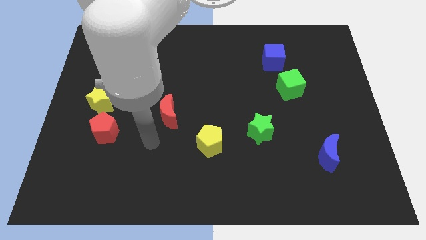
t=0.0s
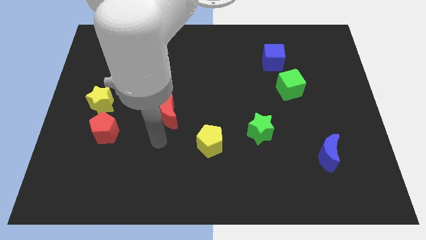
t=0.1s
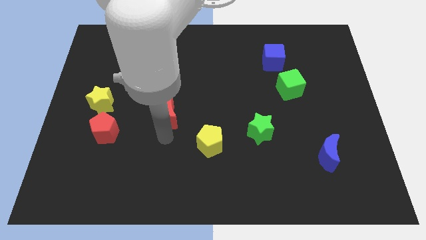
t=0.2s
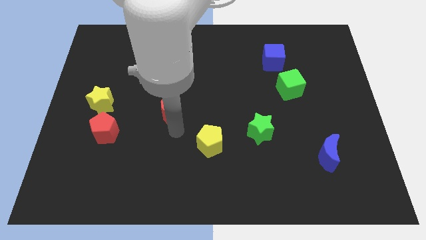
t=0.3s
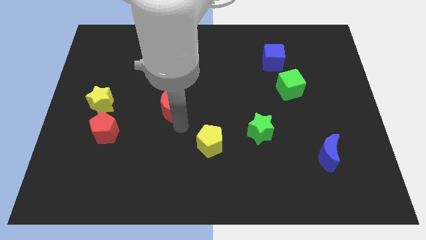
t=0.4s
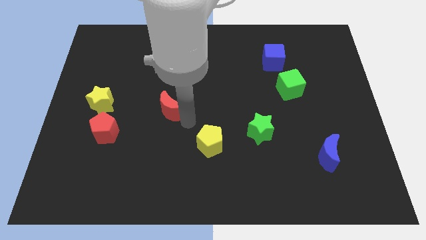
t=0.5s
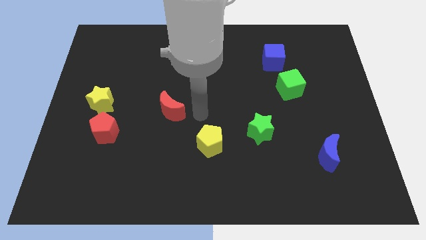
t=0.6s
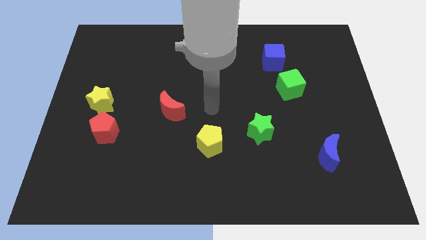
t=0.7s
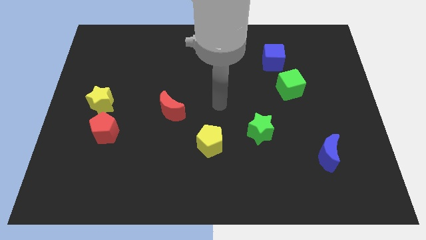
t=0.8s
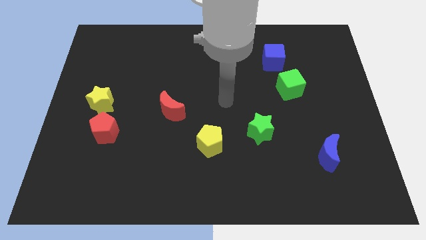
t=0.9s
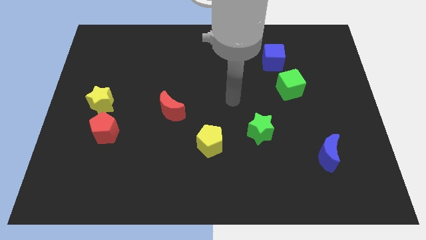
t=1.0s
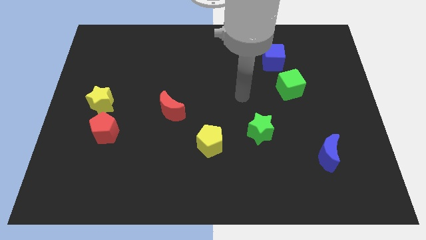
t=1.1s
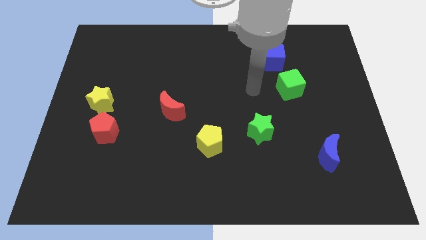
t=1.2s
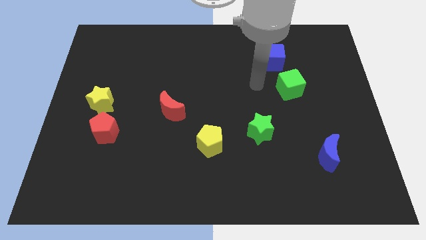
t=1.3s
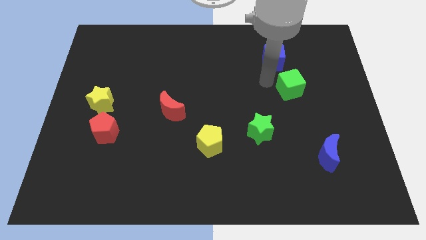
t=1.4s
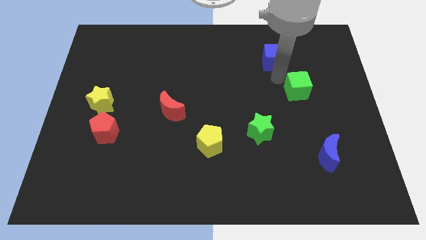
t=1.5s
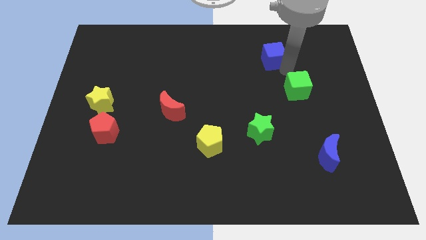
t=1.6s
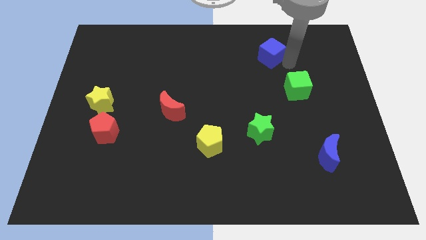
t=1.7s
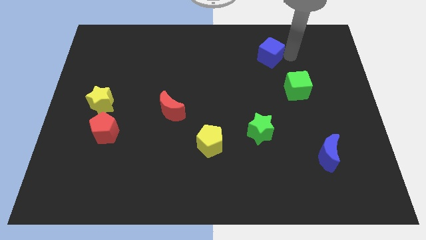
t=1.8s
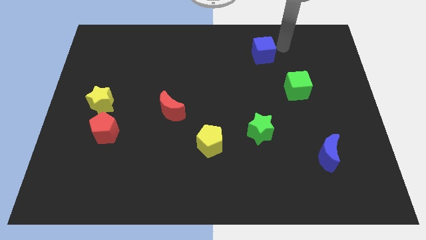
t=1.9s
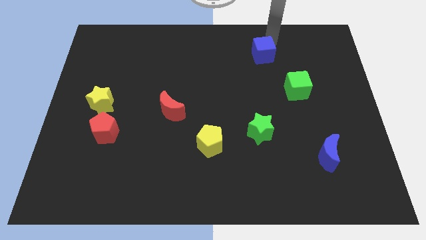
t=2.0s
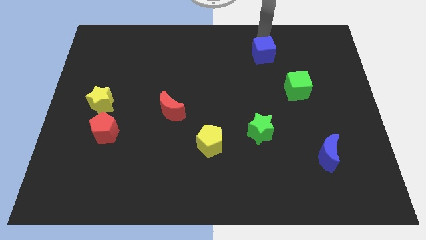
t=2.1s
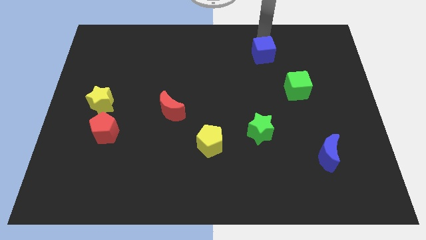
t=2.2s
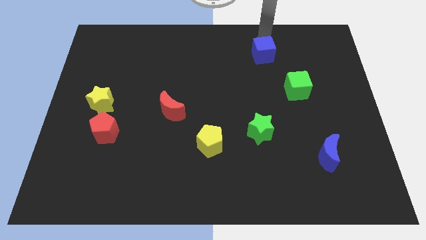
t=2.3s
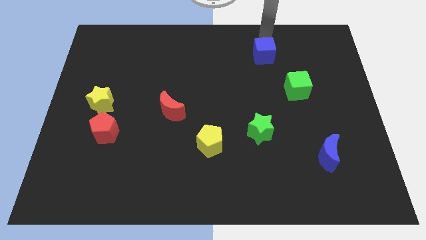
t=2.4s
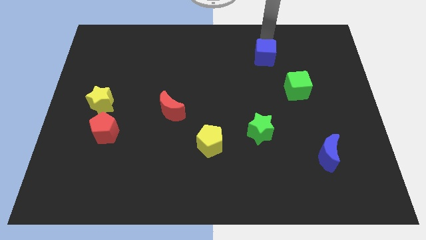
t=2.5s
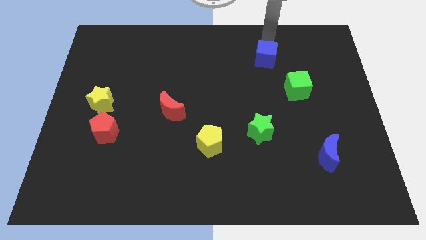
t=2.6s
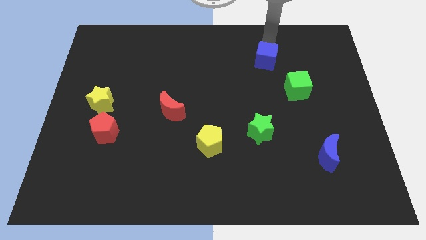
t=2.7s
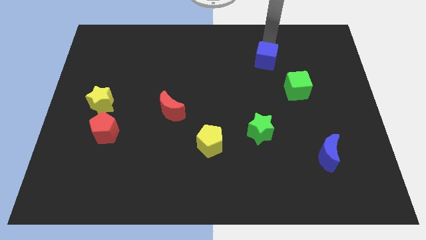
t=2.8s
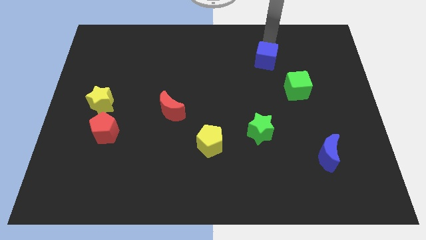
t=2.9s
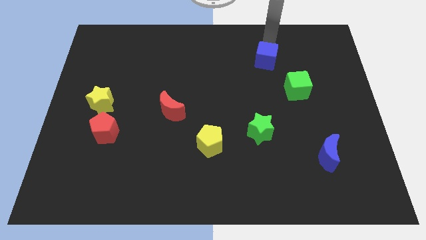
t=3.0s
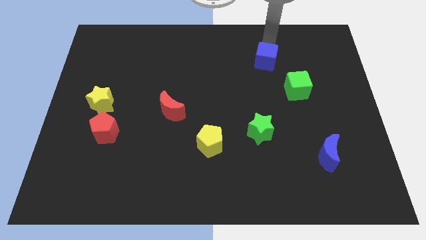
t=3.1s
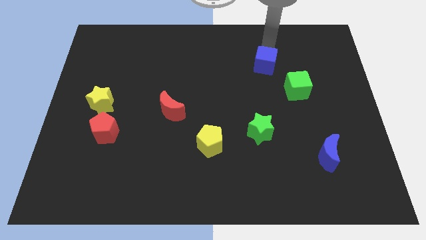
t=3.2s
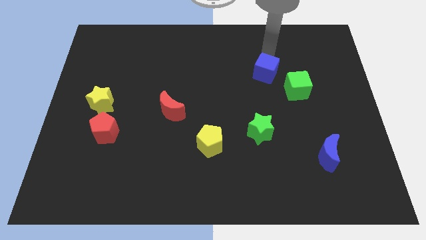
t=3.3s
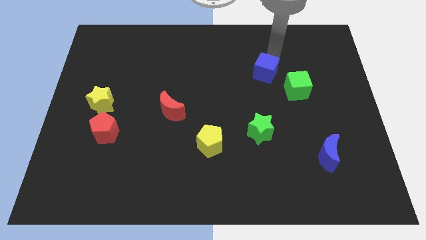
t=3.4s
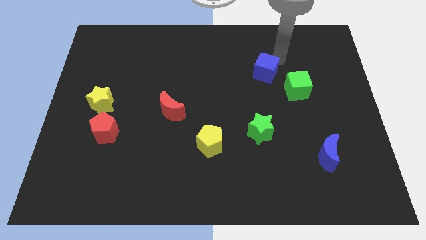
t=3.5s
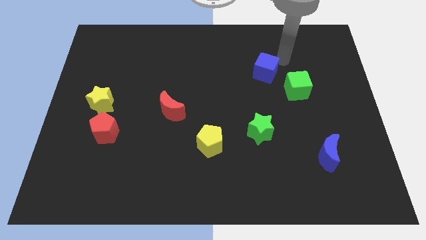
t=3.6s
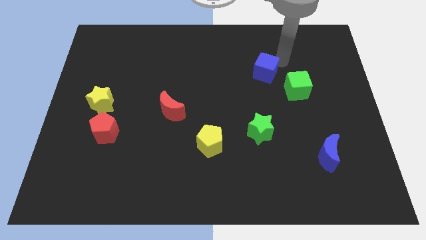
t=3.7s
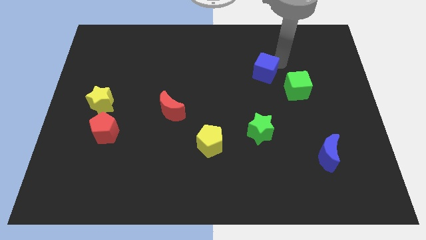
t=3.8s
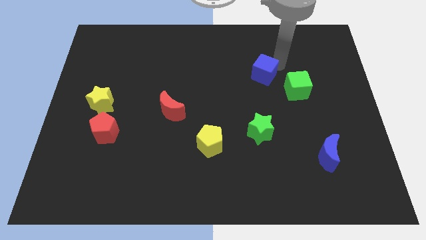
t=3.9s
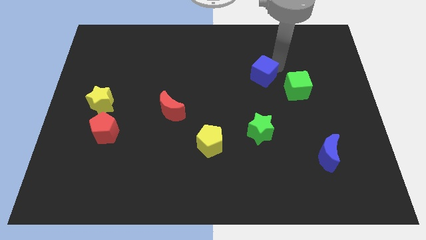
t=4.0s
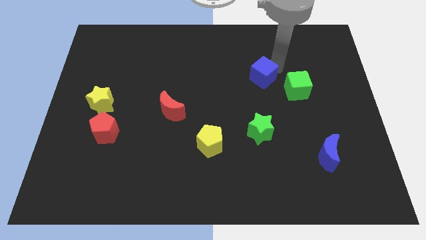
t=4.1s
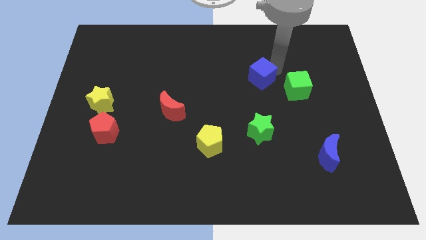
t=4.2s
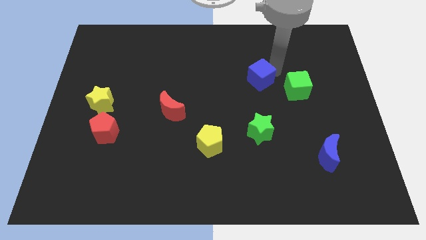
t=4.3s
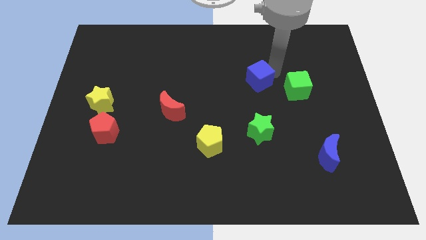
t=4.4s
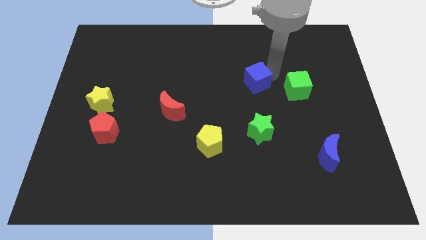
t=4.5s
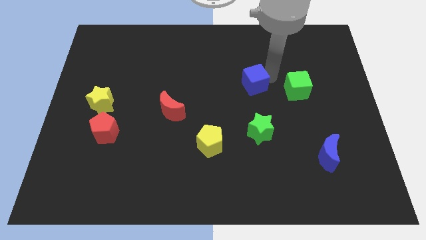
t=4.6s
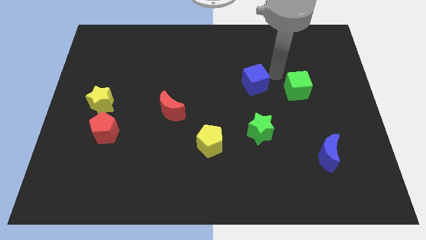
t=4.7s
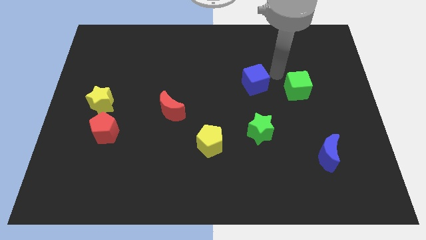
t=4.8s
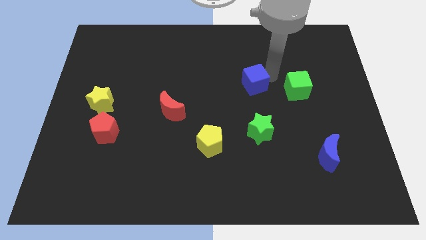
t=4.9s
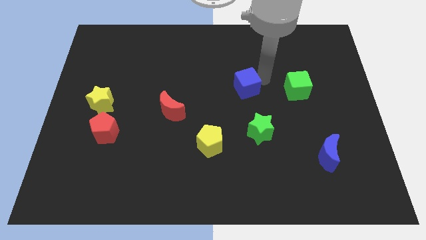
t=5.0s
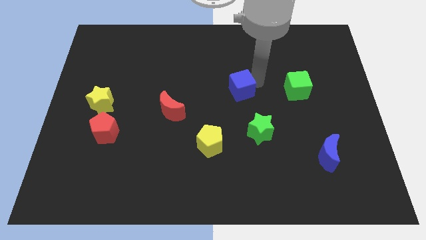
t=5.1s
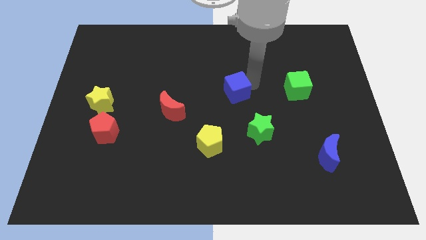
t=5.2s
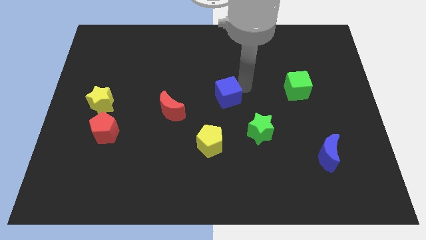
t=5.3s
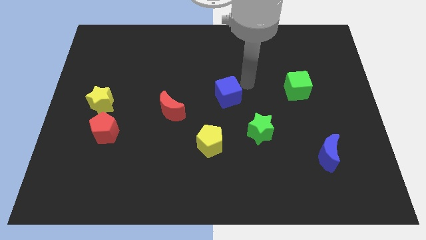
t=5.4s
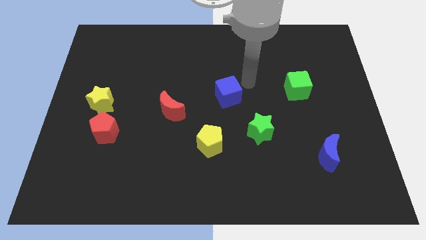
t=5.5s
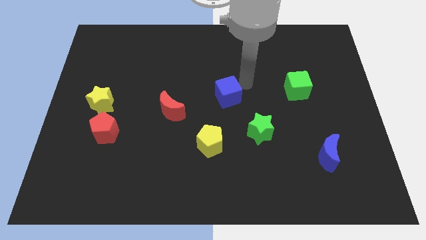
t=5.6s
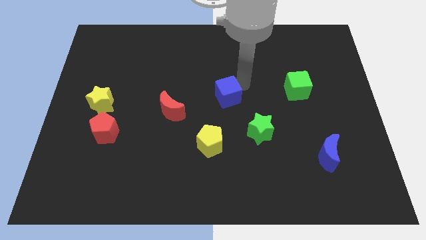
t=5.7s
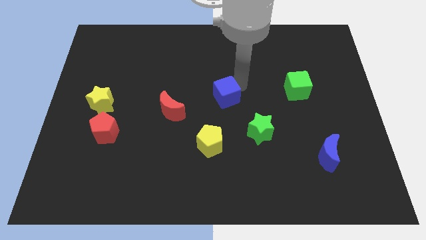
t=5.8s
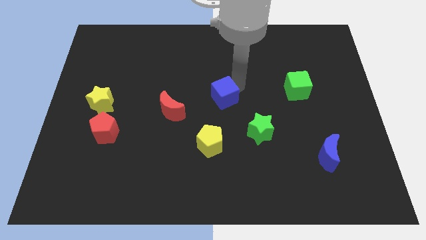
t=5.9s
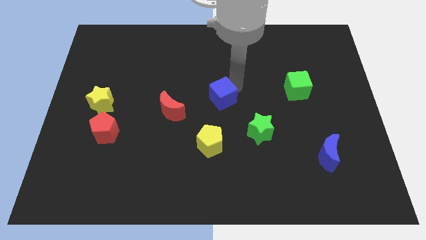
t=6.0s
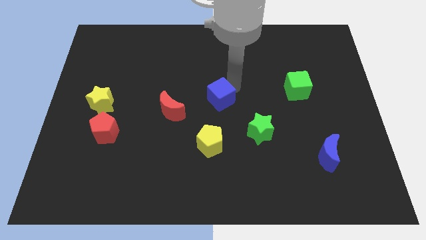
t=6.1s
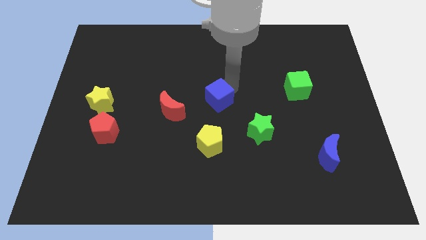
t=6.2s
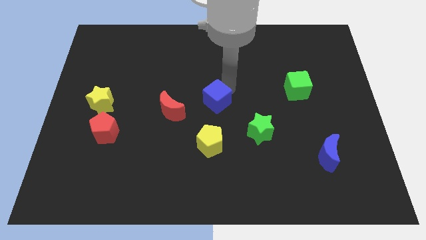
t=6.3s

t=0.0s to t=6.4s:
move the blue cube down and then left

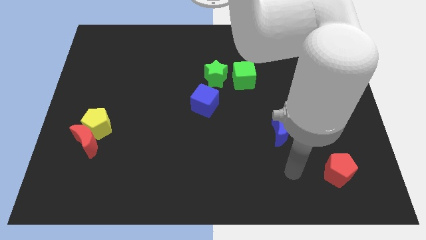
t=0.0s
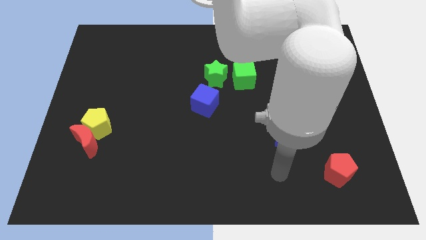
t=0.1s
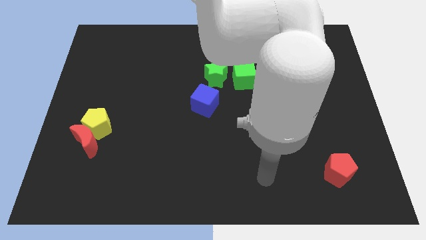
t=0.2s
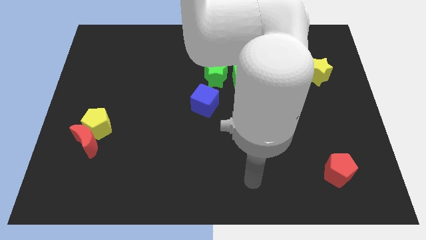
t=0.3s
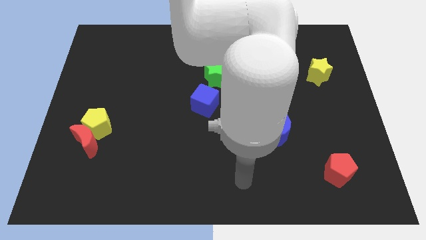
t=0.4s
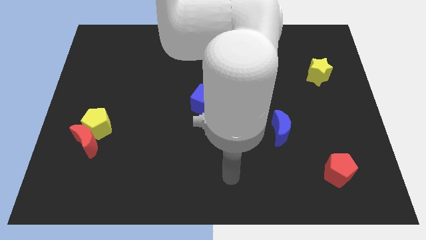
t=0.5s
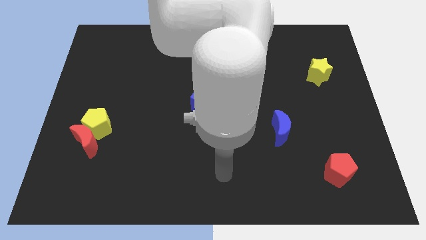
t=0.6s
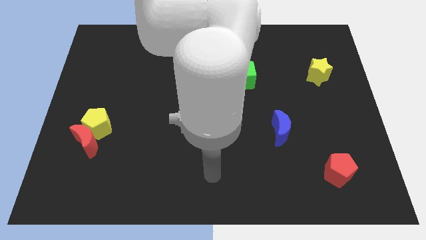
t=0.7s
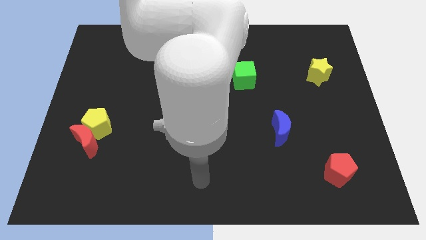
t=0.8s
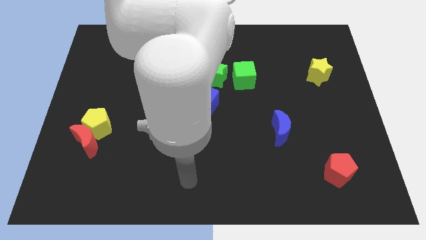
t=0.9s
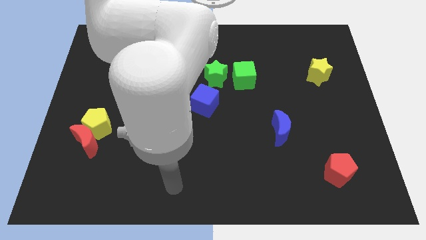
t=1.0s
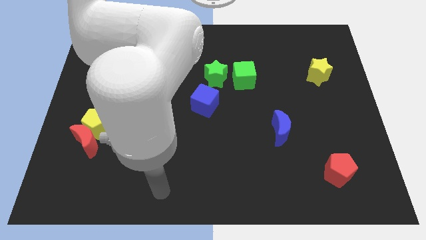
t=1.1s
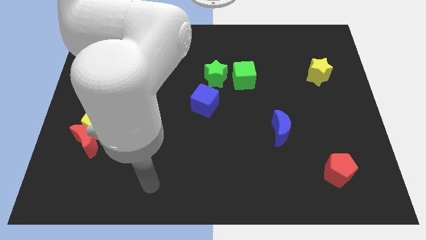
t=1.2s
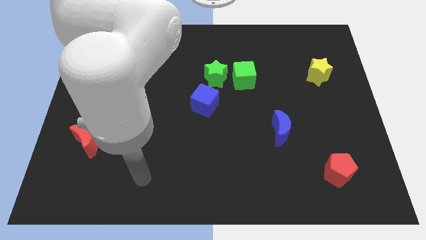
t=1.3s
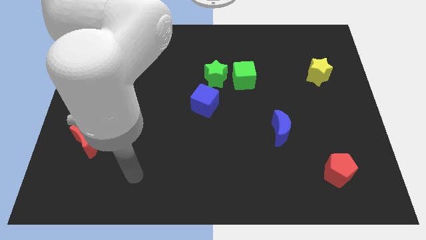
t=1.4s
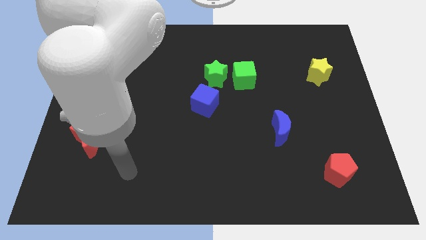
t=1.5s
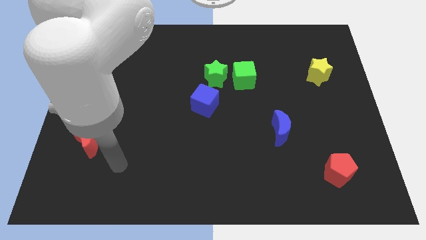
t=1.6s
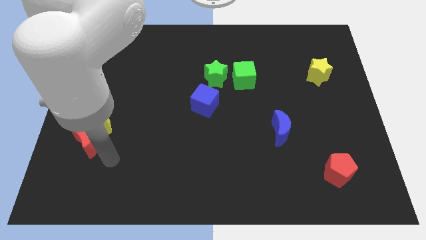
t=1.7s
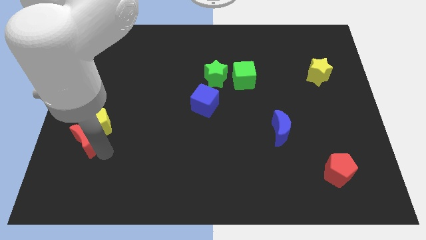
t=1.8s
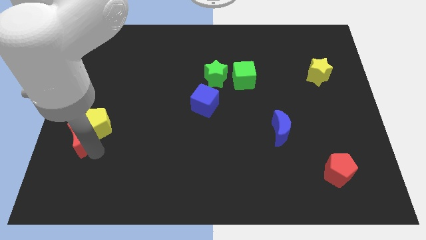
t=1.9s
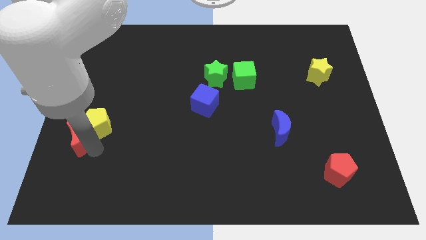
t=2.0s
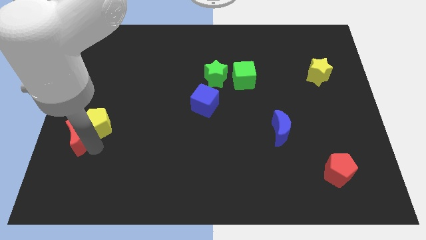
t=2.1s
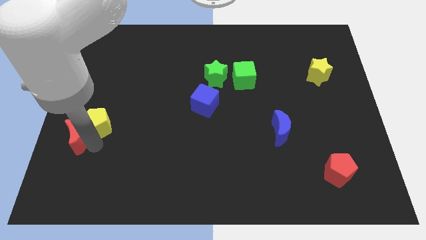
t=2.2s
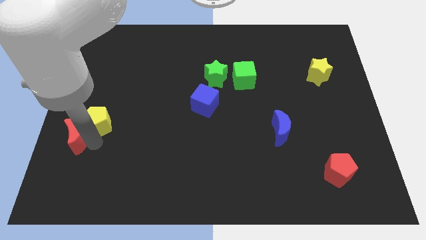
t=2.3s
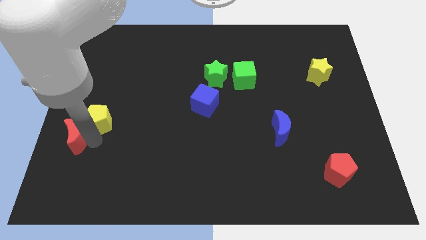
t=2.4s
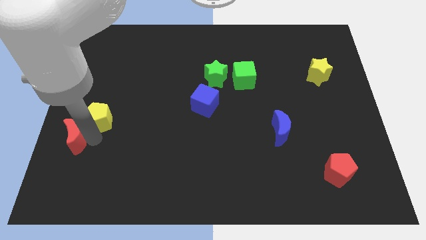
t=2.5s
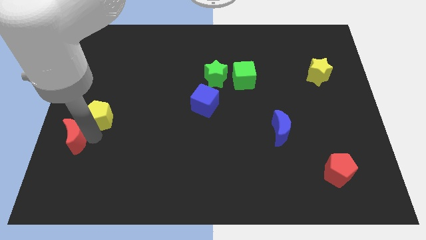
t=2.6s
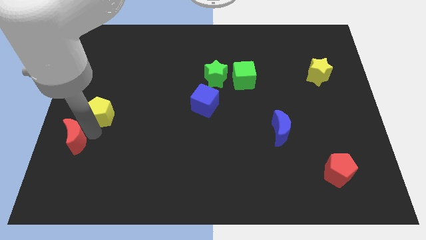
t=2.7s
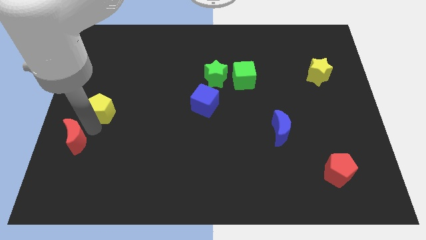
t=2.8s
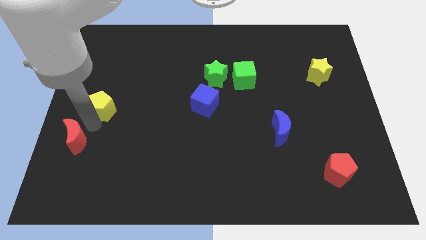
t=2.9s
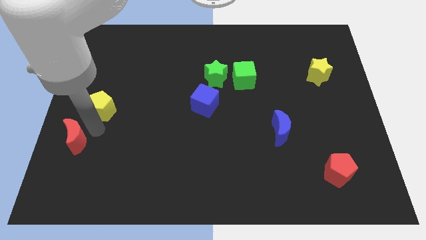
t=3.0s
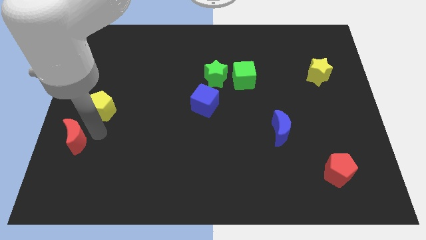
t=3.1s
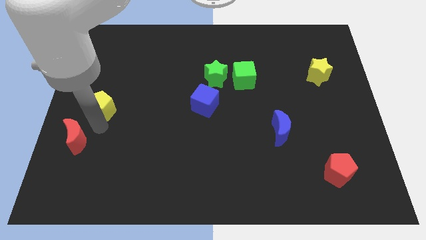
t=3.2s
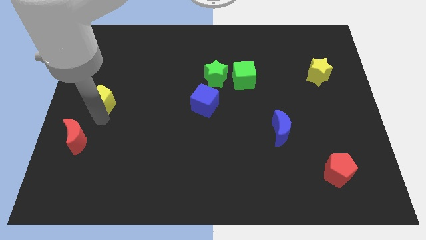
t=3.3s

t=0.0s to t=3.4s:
slightly push the yellow pentagon upwards
